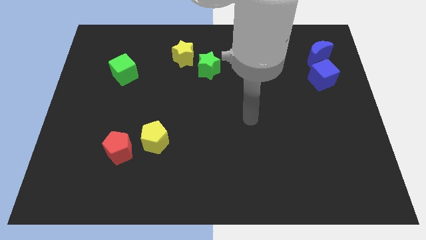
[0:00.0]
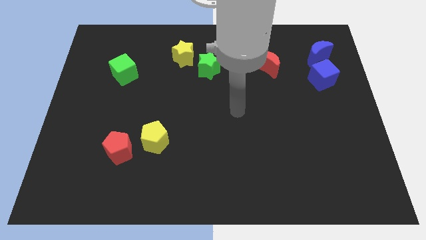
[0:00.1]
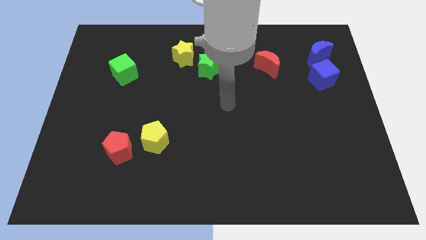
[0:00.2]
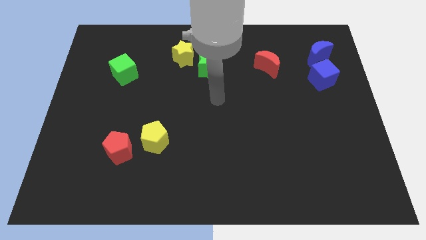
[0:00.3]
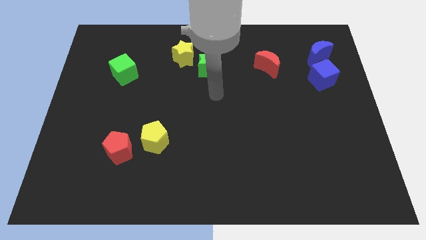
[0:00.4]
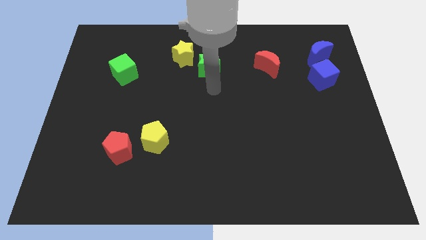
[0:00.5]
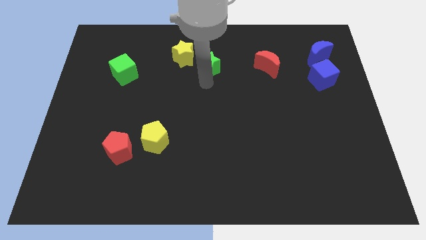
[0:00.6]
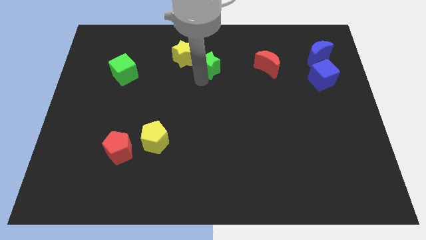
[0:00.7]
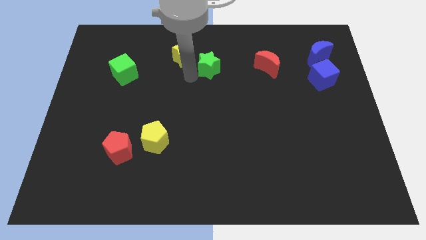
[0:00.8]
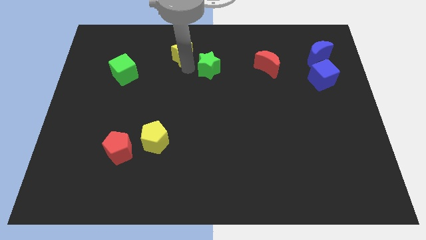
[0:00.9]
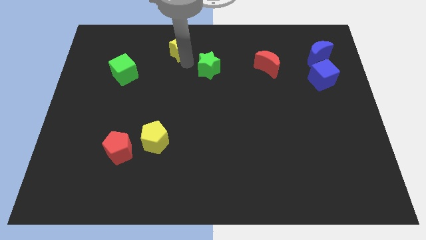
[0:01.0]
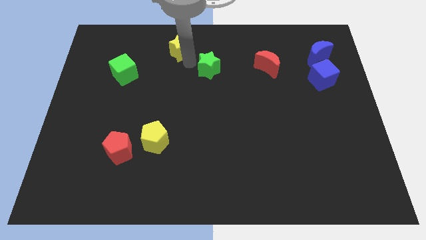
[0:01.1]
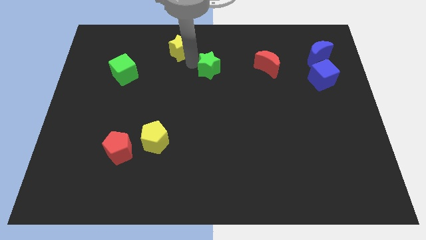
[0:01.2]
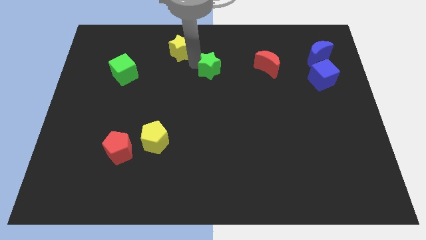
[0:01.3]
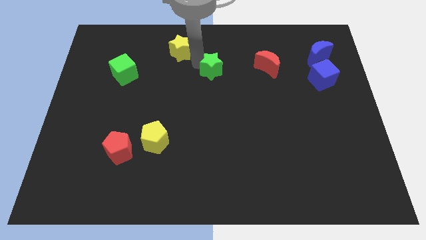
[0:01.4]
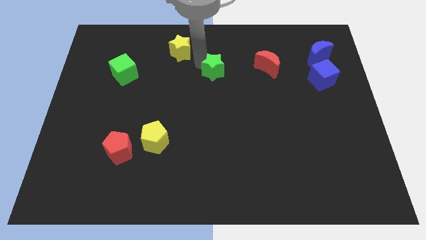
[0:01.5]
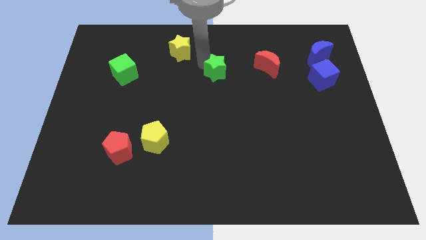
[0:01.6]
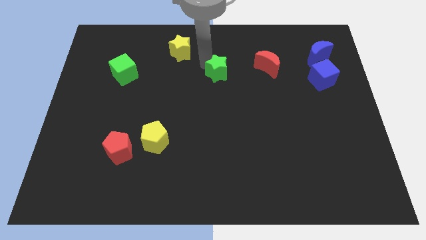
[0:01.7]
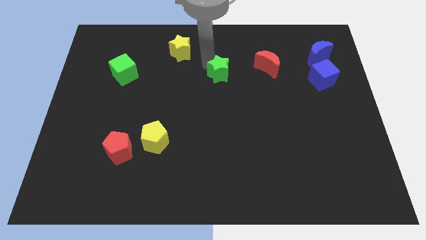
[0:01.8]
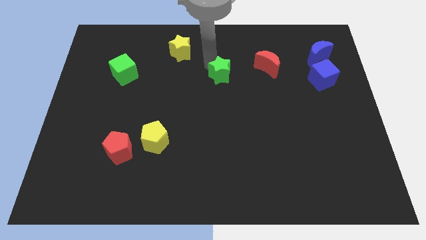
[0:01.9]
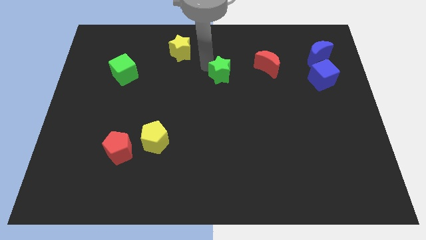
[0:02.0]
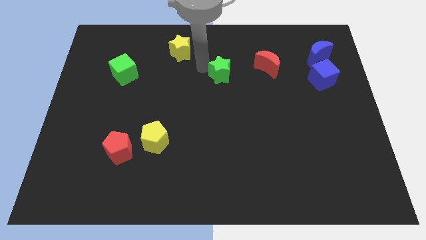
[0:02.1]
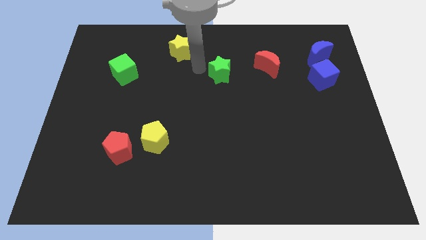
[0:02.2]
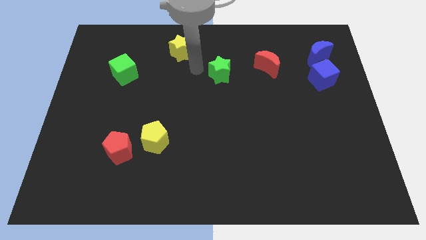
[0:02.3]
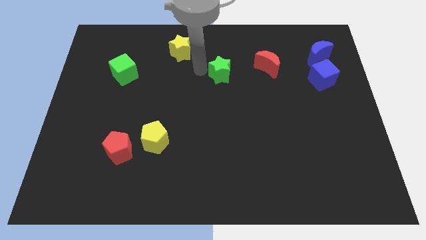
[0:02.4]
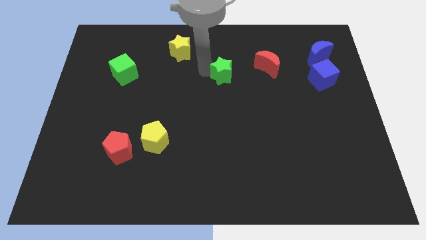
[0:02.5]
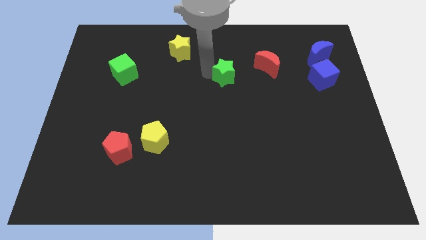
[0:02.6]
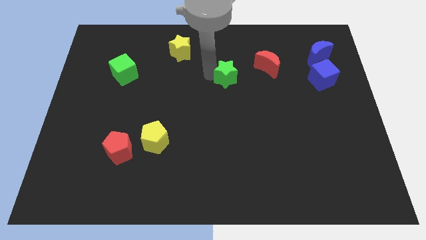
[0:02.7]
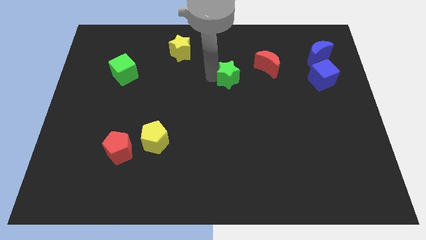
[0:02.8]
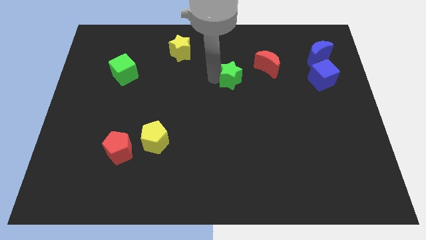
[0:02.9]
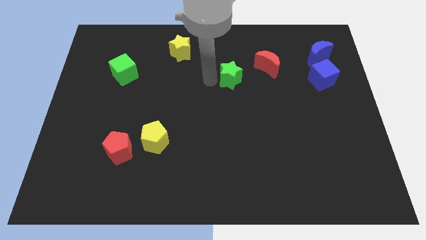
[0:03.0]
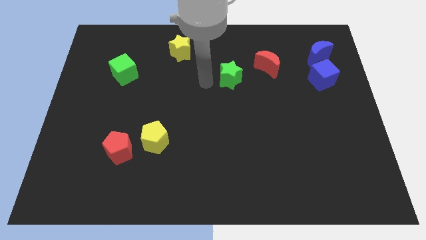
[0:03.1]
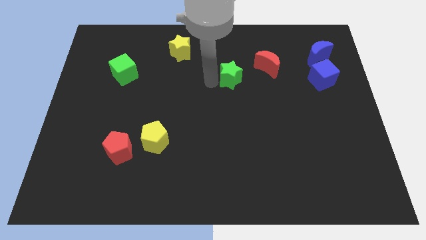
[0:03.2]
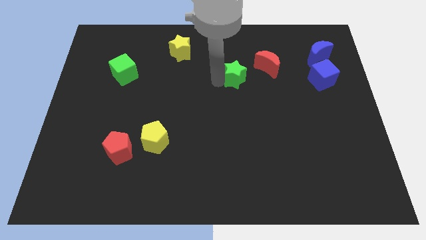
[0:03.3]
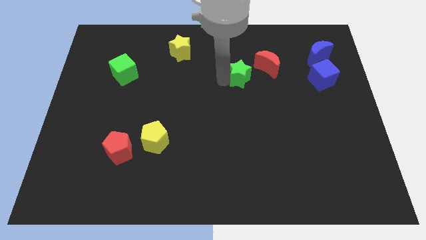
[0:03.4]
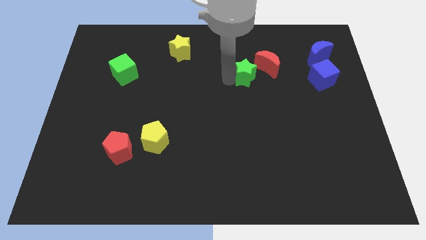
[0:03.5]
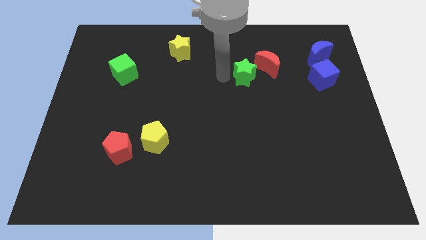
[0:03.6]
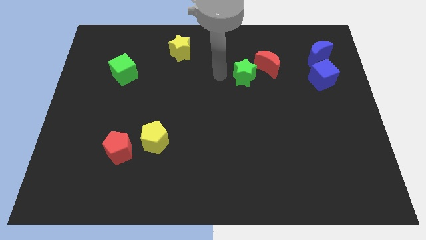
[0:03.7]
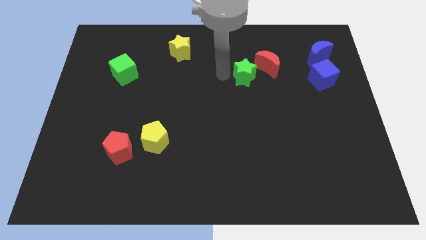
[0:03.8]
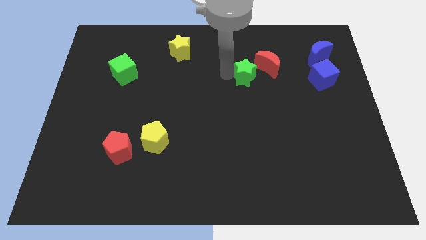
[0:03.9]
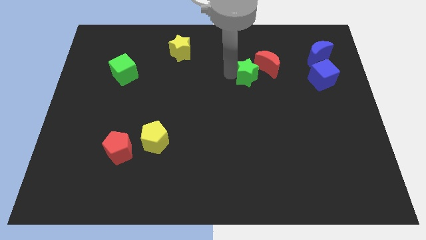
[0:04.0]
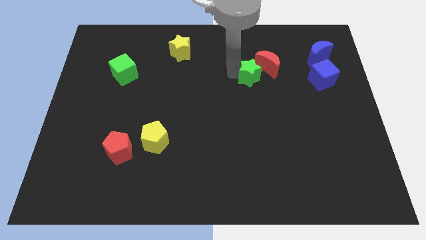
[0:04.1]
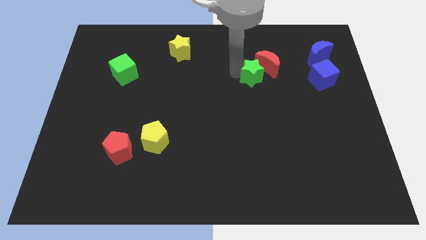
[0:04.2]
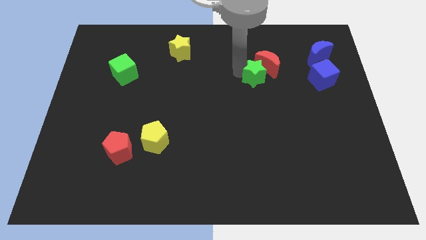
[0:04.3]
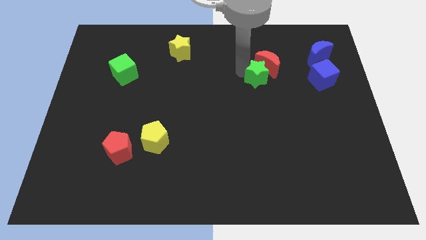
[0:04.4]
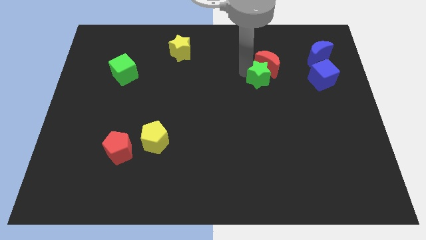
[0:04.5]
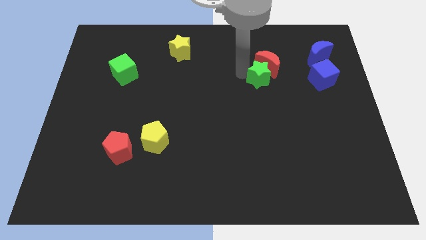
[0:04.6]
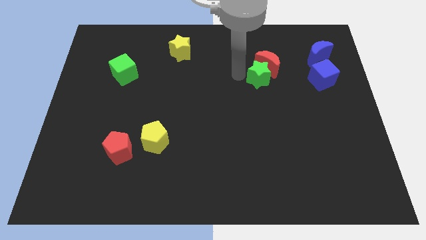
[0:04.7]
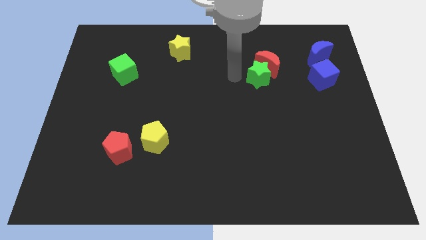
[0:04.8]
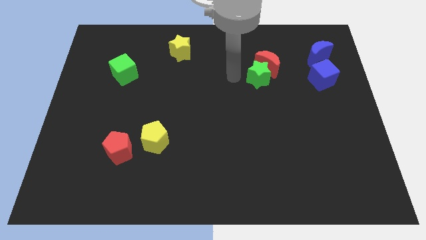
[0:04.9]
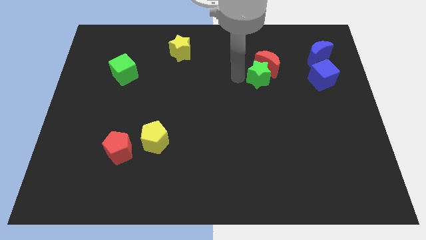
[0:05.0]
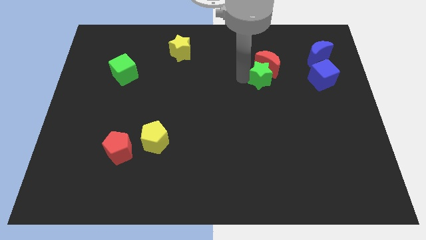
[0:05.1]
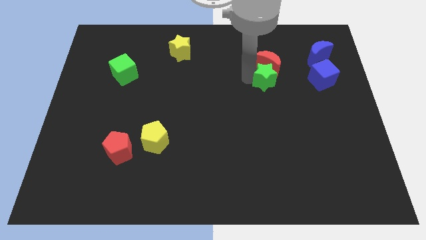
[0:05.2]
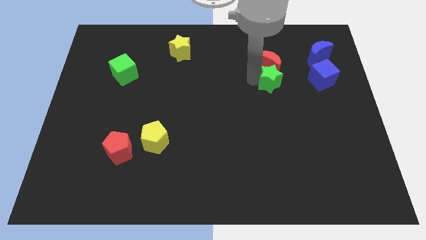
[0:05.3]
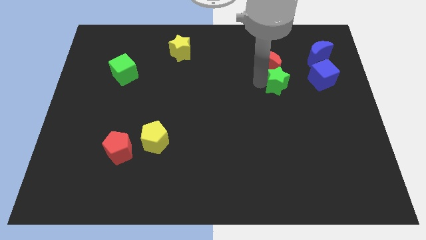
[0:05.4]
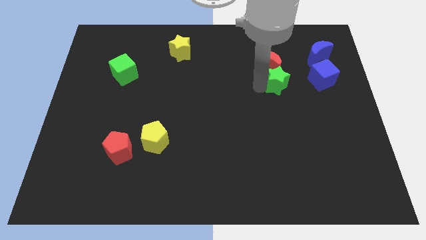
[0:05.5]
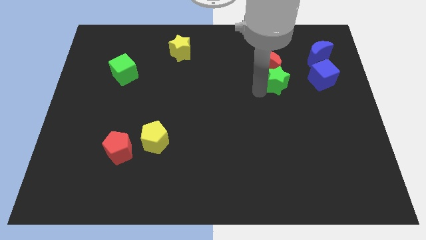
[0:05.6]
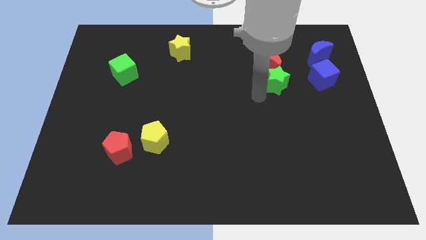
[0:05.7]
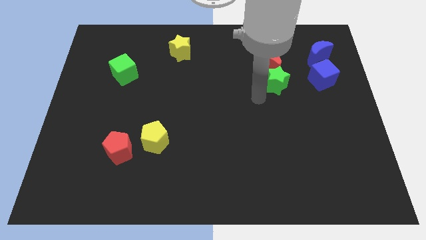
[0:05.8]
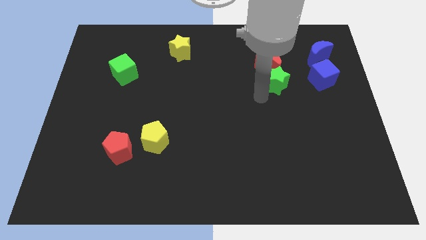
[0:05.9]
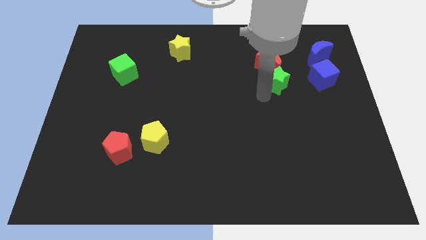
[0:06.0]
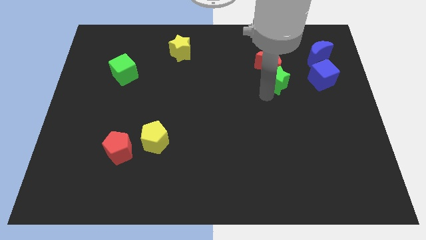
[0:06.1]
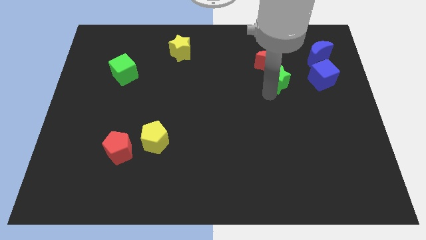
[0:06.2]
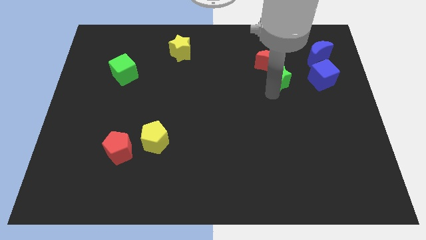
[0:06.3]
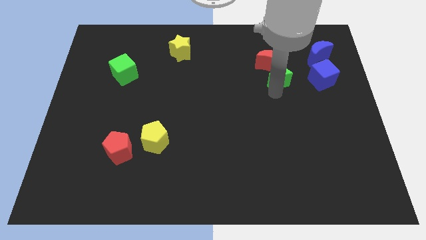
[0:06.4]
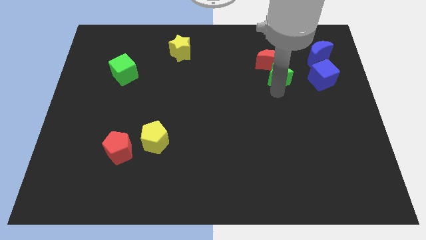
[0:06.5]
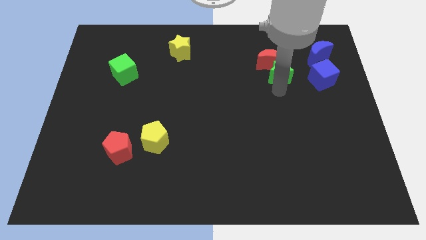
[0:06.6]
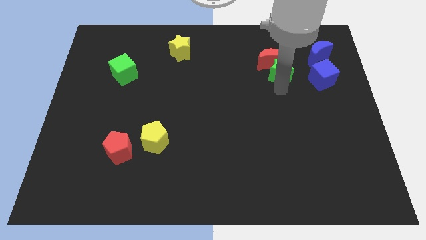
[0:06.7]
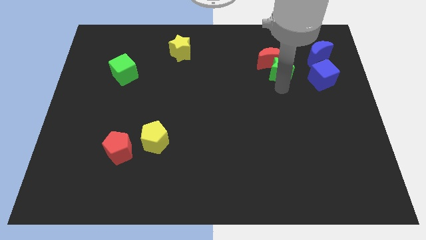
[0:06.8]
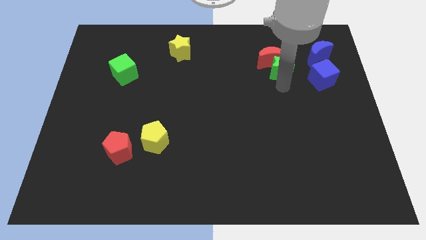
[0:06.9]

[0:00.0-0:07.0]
put the green star to the right of the red moon
